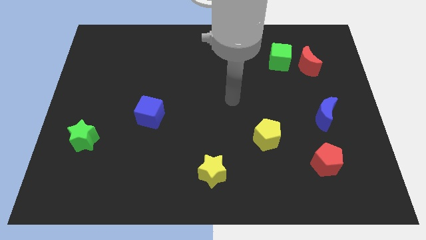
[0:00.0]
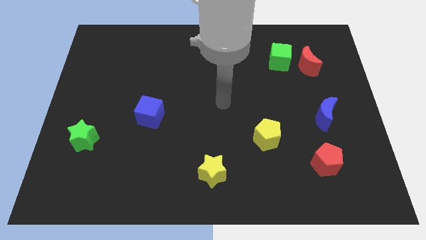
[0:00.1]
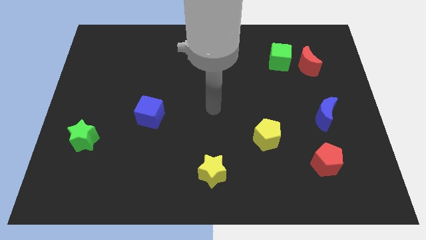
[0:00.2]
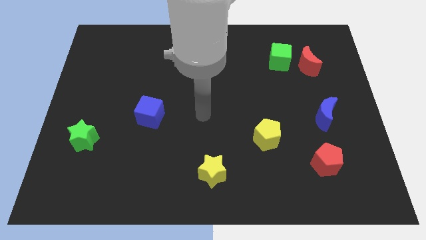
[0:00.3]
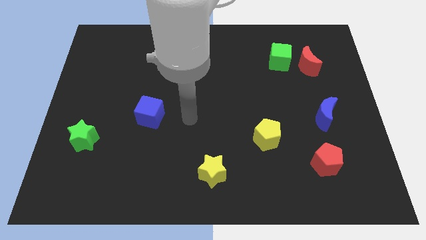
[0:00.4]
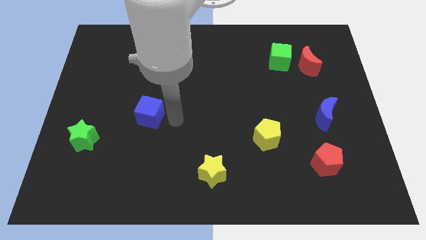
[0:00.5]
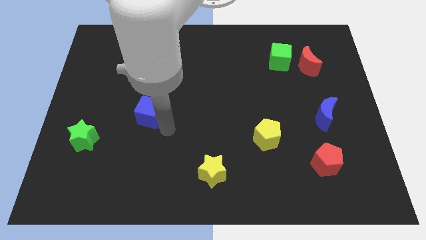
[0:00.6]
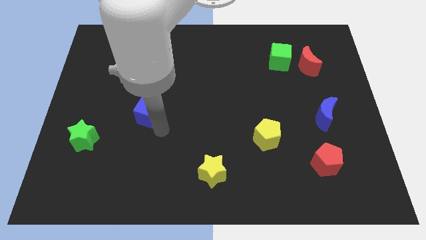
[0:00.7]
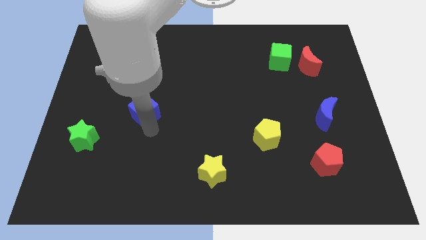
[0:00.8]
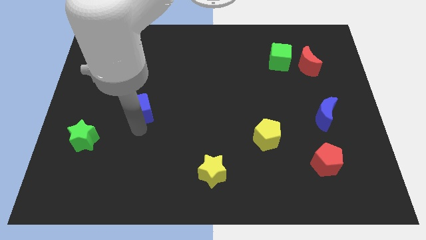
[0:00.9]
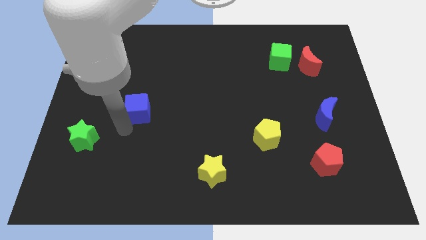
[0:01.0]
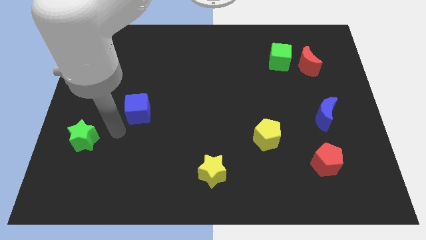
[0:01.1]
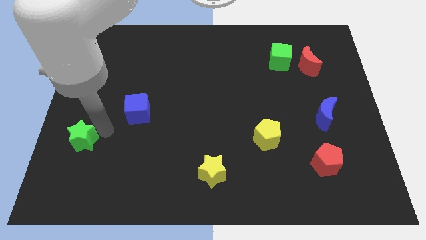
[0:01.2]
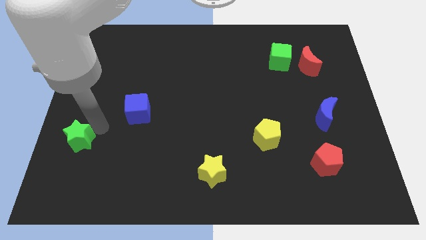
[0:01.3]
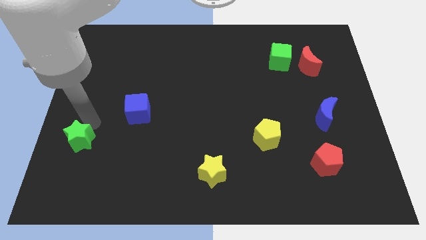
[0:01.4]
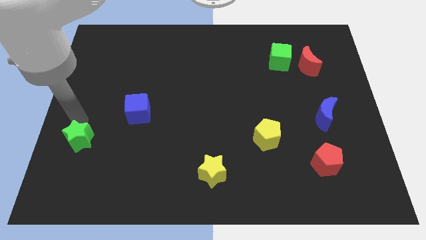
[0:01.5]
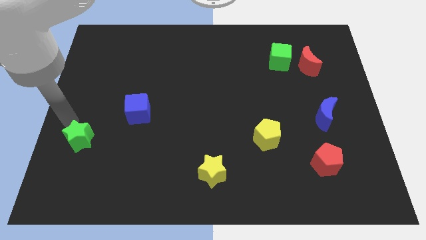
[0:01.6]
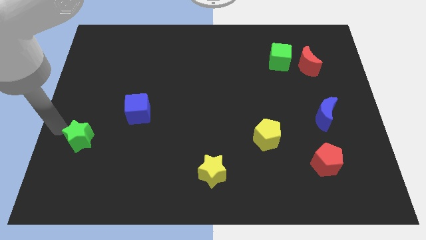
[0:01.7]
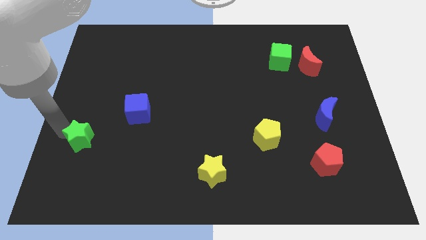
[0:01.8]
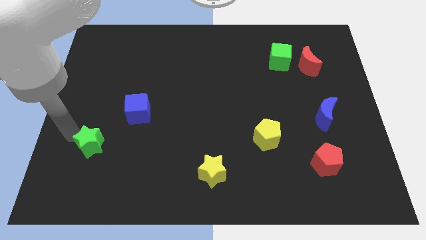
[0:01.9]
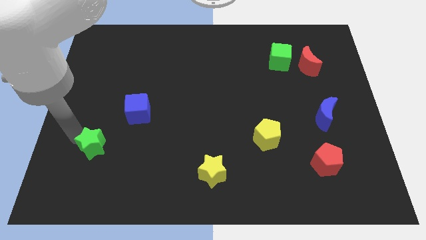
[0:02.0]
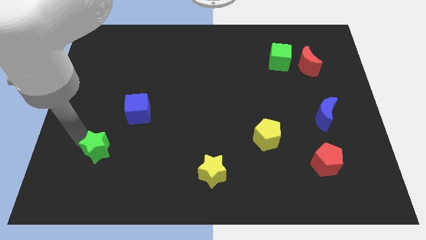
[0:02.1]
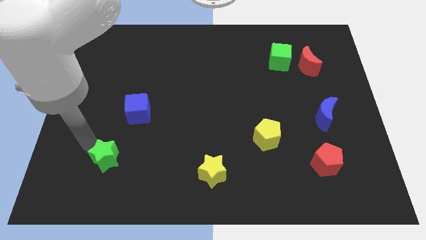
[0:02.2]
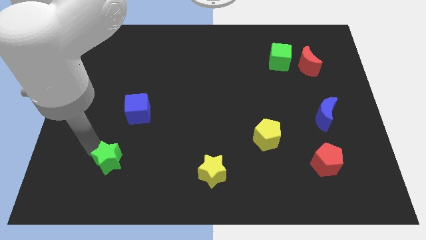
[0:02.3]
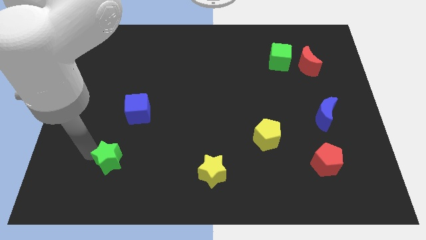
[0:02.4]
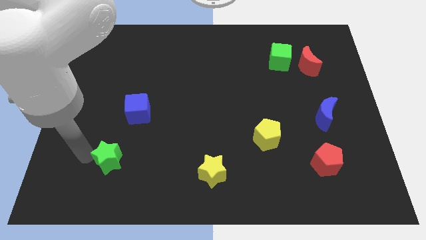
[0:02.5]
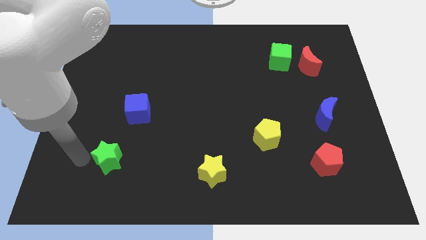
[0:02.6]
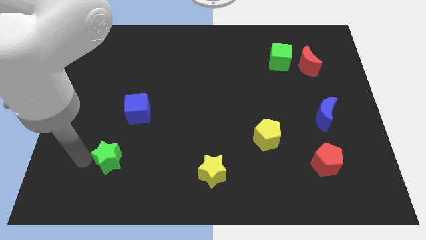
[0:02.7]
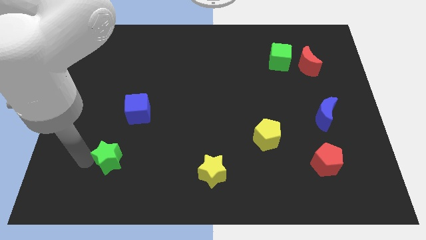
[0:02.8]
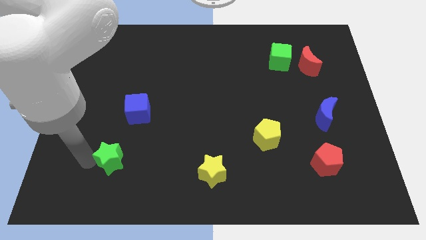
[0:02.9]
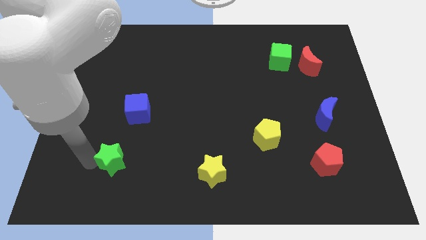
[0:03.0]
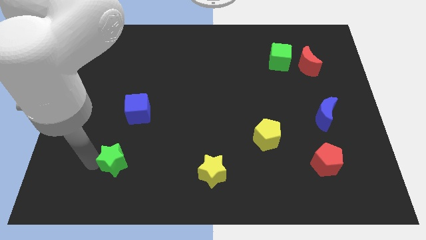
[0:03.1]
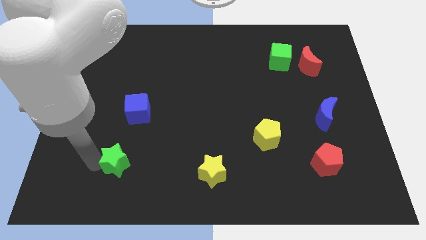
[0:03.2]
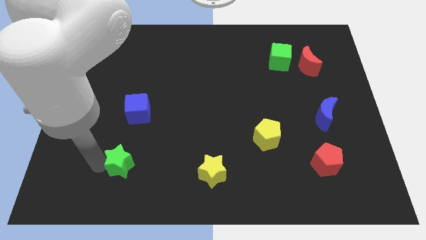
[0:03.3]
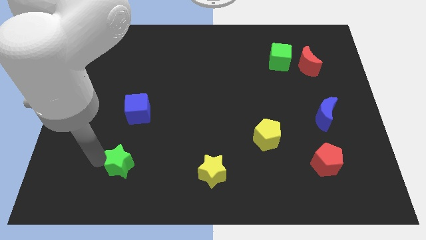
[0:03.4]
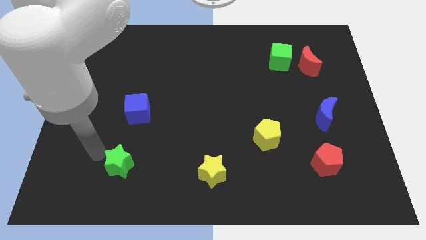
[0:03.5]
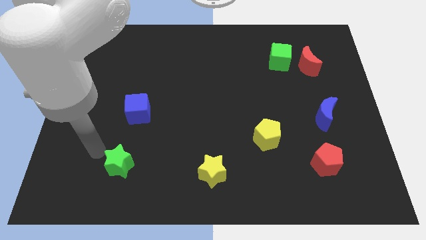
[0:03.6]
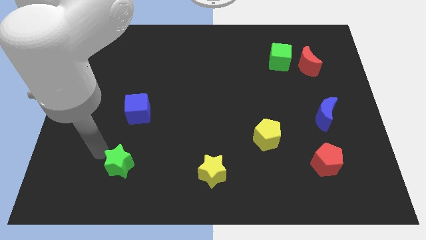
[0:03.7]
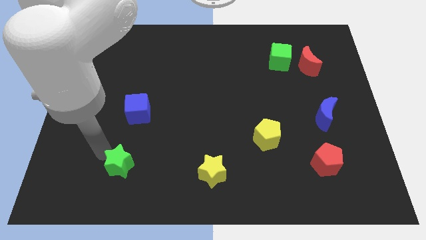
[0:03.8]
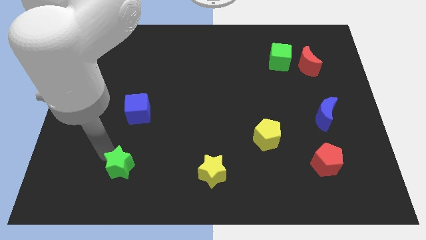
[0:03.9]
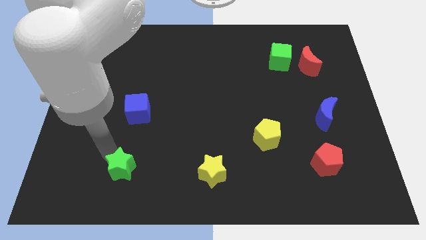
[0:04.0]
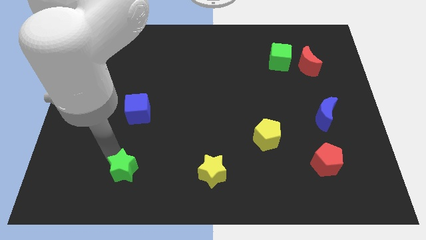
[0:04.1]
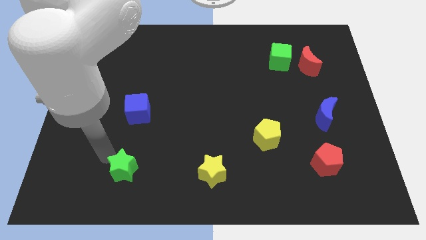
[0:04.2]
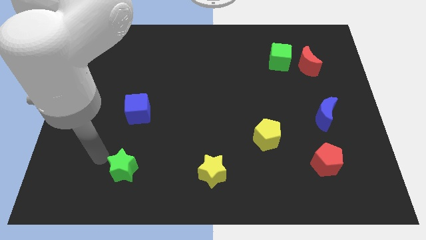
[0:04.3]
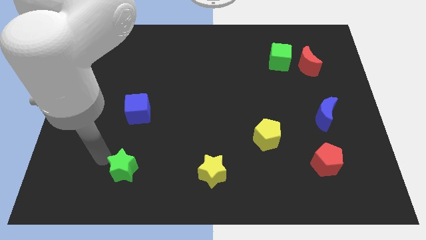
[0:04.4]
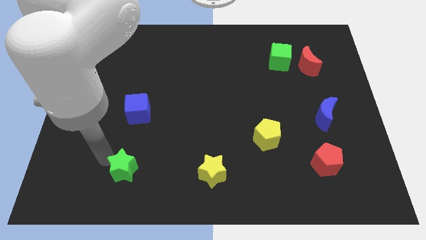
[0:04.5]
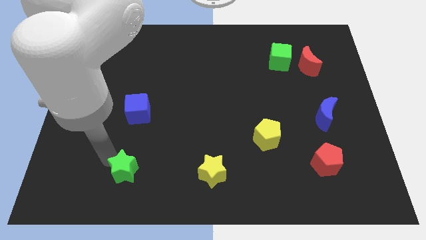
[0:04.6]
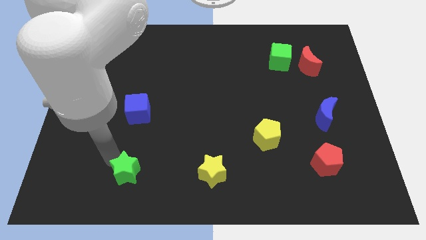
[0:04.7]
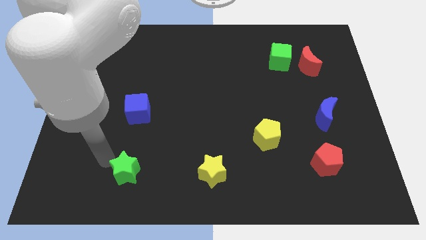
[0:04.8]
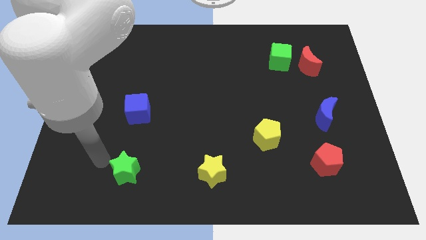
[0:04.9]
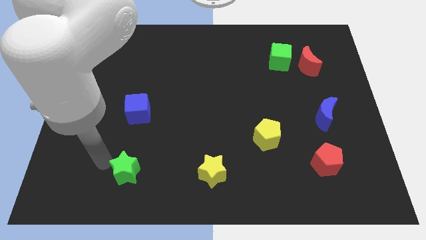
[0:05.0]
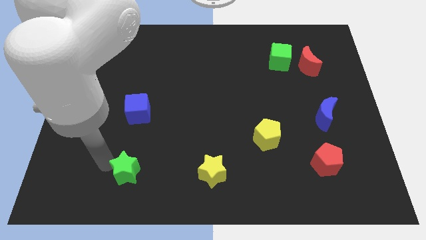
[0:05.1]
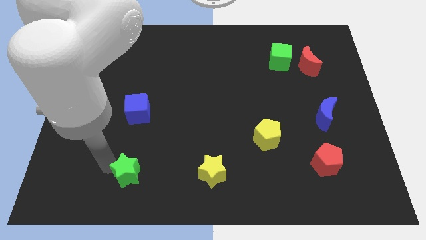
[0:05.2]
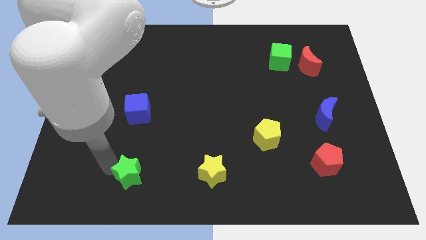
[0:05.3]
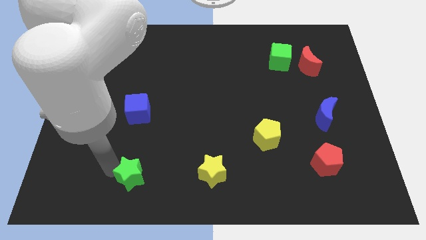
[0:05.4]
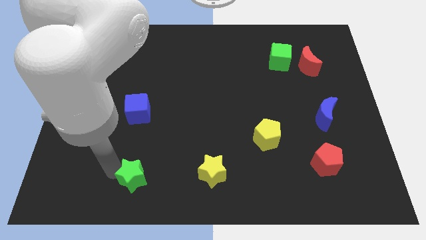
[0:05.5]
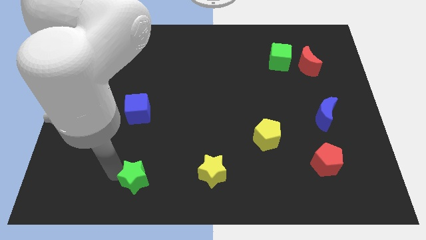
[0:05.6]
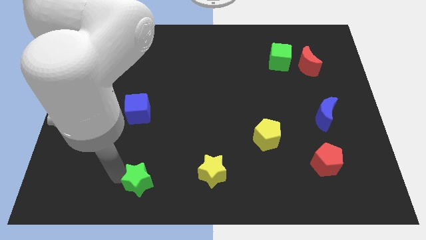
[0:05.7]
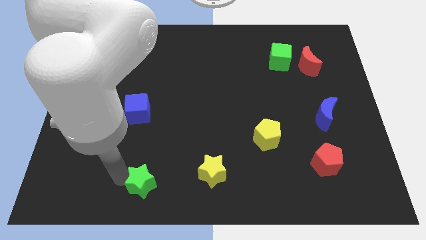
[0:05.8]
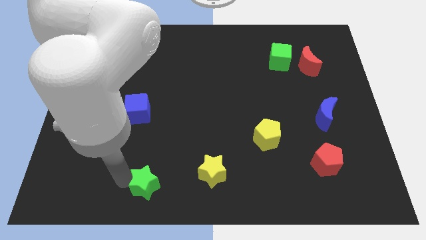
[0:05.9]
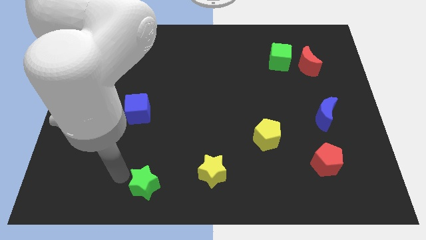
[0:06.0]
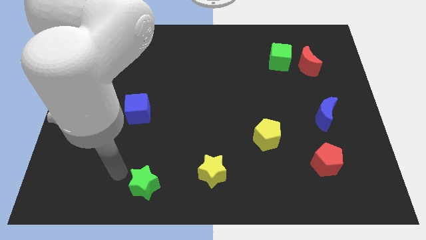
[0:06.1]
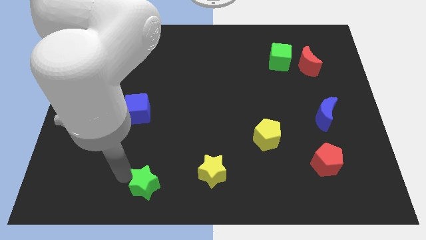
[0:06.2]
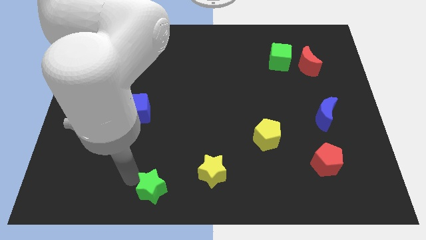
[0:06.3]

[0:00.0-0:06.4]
put the green star to the bottom
